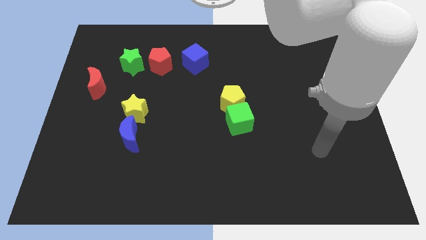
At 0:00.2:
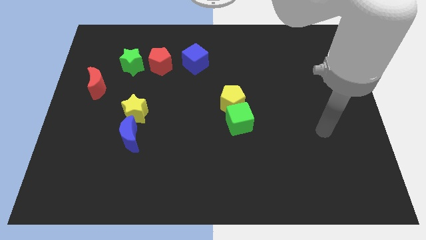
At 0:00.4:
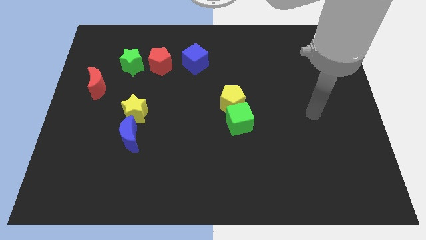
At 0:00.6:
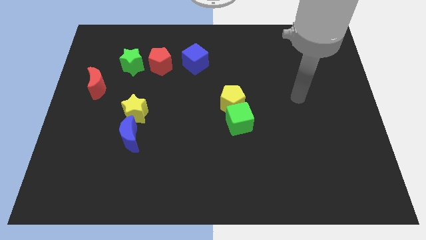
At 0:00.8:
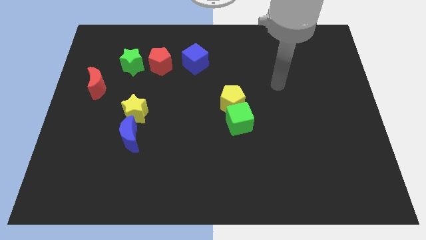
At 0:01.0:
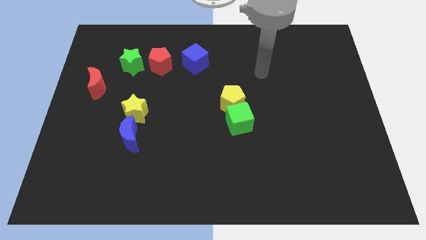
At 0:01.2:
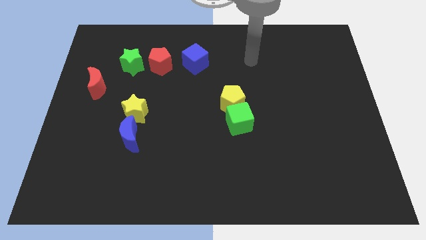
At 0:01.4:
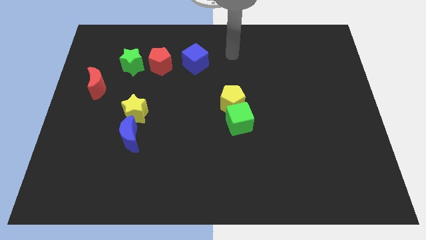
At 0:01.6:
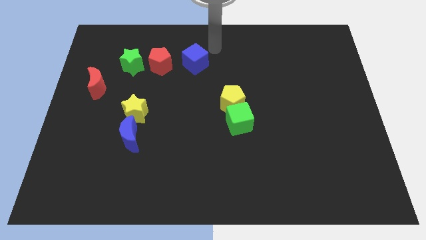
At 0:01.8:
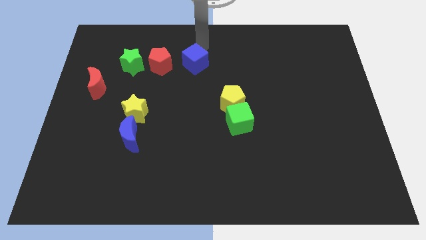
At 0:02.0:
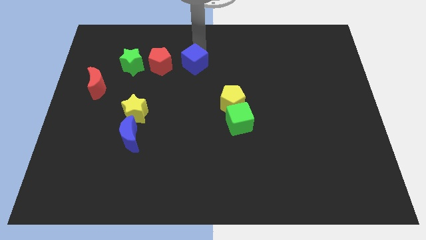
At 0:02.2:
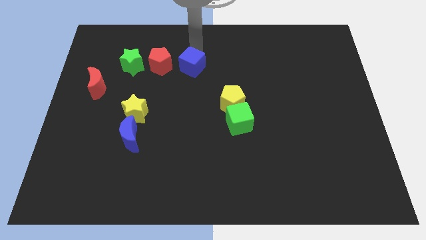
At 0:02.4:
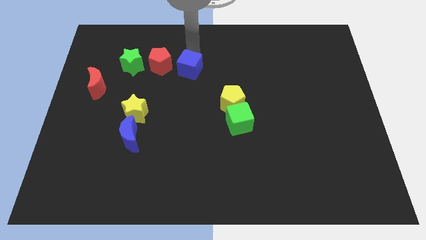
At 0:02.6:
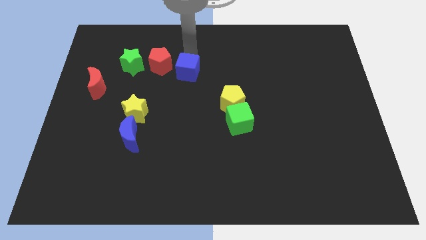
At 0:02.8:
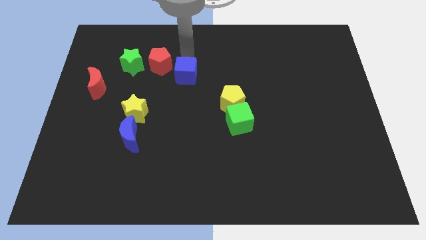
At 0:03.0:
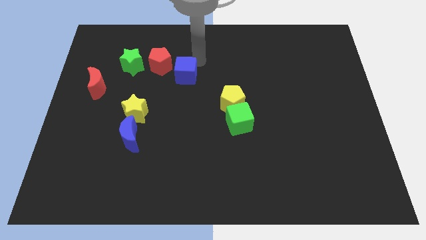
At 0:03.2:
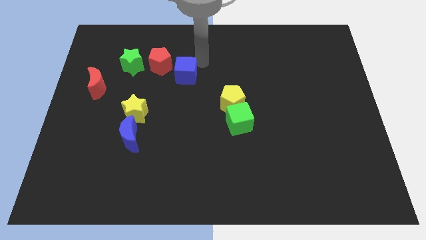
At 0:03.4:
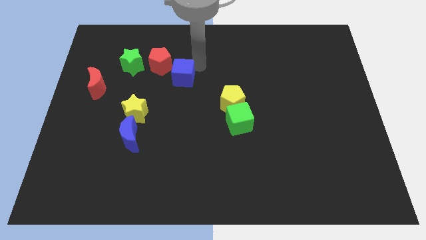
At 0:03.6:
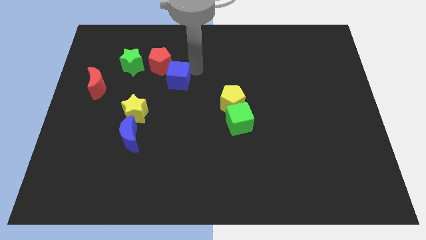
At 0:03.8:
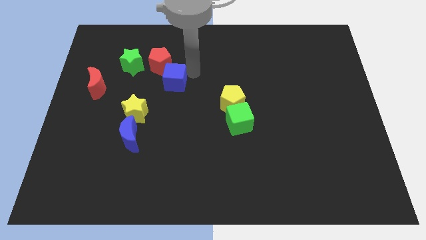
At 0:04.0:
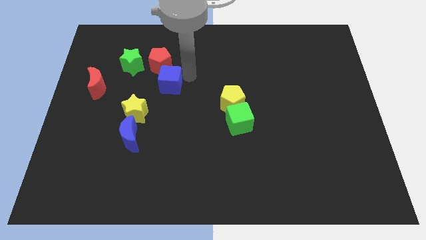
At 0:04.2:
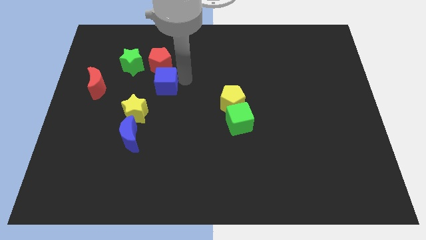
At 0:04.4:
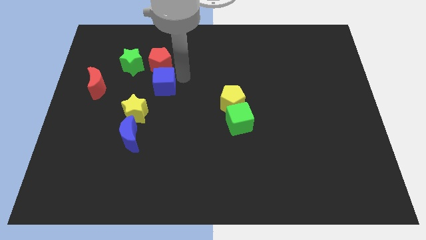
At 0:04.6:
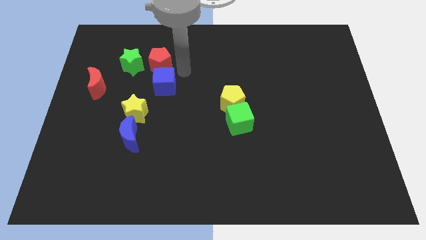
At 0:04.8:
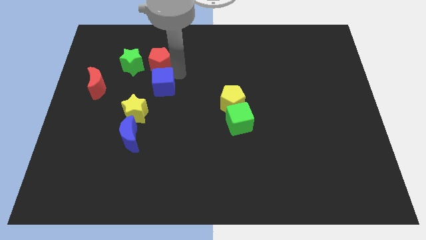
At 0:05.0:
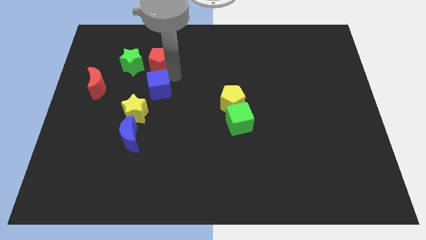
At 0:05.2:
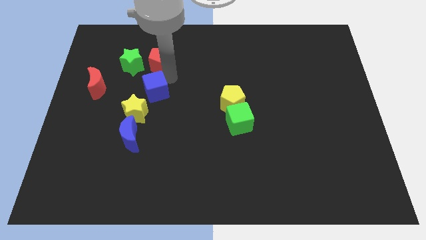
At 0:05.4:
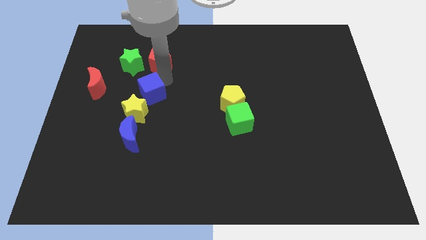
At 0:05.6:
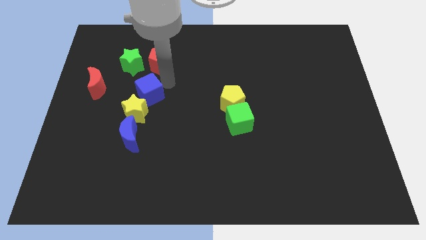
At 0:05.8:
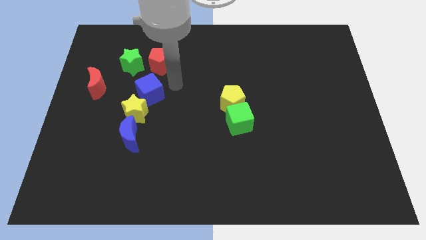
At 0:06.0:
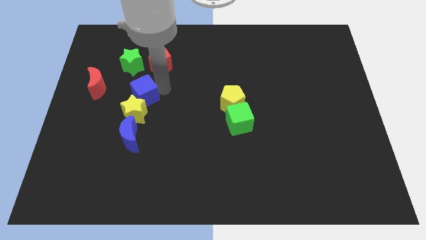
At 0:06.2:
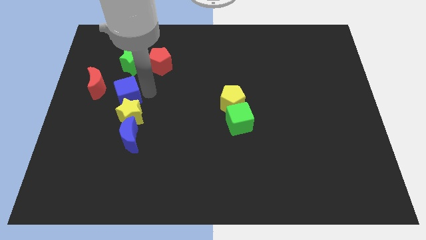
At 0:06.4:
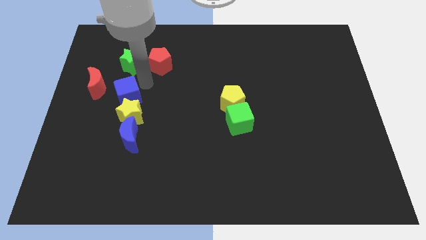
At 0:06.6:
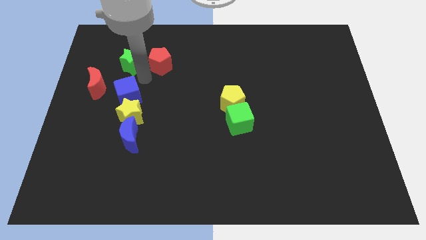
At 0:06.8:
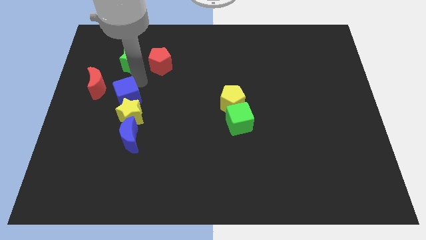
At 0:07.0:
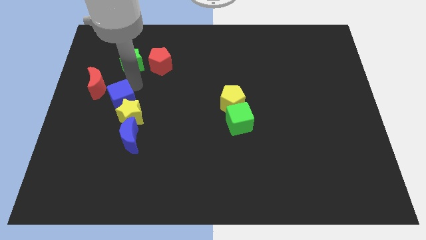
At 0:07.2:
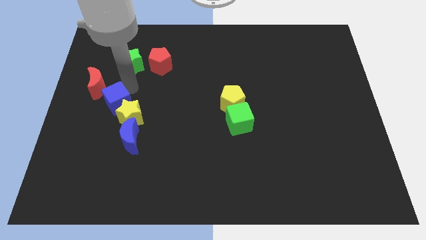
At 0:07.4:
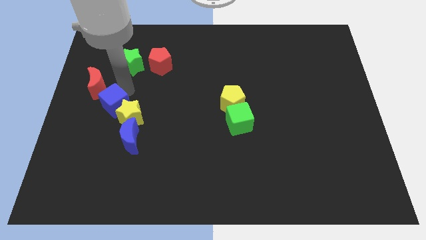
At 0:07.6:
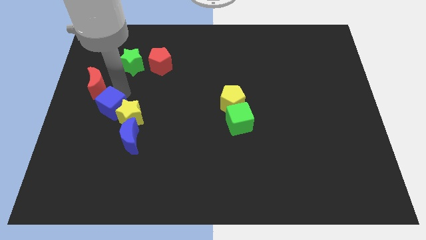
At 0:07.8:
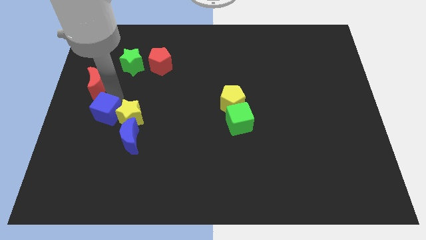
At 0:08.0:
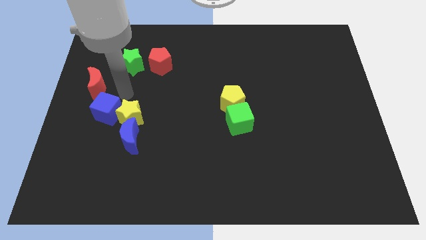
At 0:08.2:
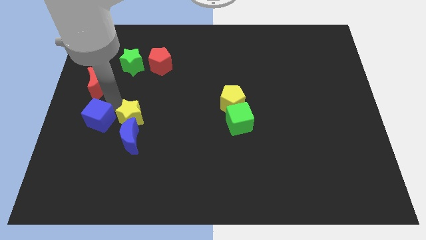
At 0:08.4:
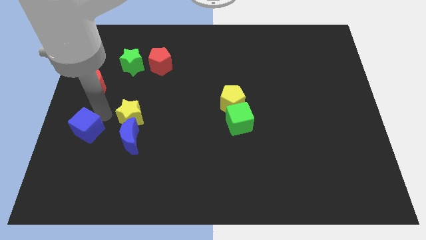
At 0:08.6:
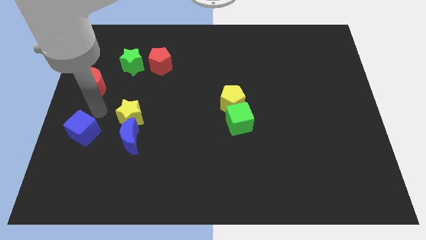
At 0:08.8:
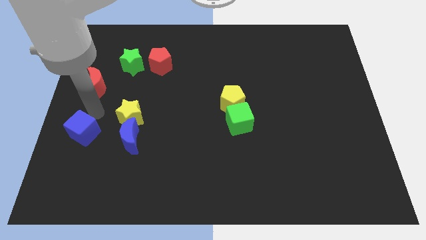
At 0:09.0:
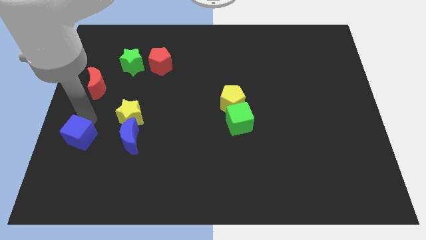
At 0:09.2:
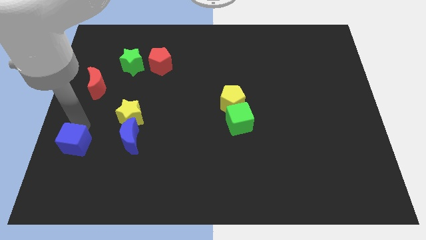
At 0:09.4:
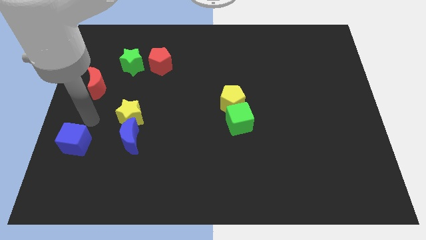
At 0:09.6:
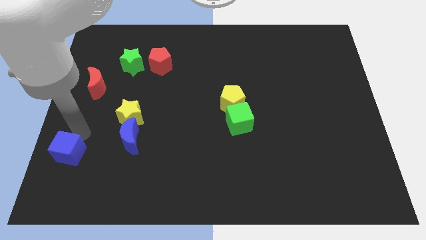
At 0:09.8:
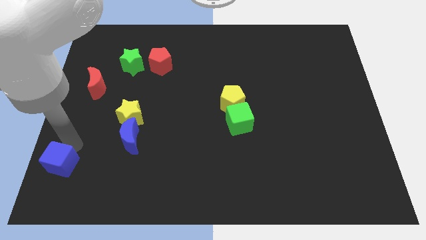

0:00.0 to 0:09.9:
push the blue cube to the bottom left corner

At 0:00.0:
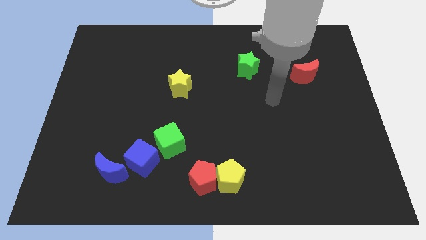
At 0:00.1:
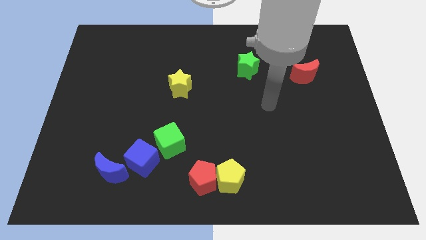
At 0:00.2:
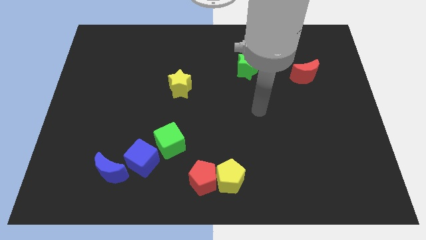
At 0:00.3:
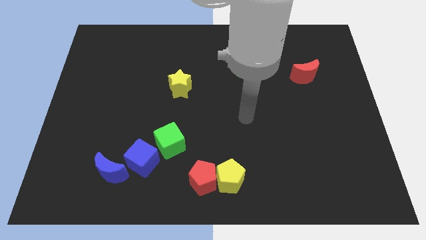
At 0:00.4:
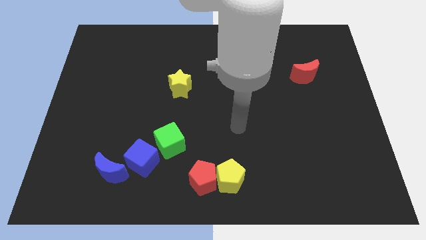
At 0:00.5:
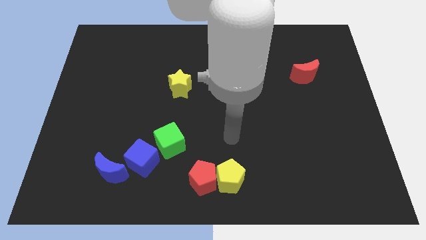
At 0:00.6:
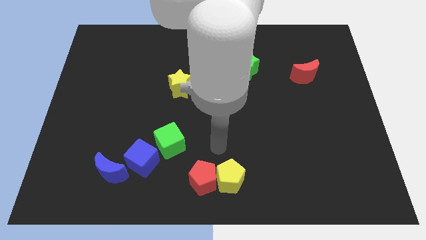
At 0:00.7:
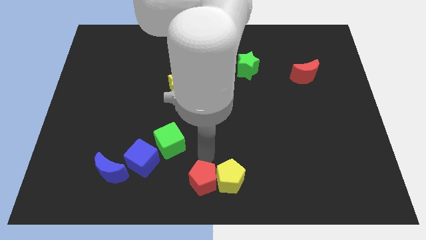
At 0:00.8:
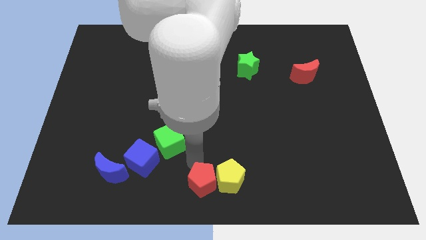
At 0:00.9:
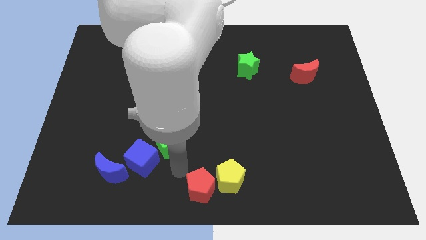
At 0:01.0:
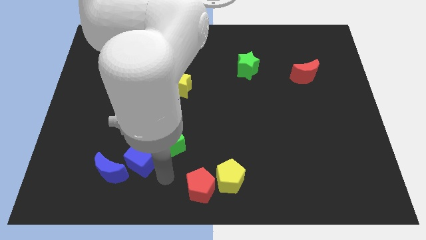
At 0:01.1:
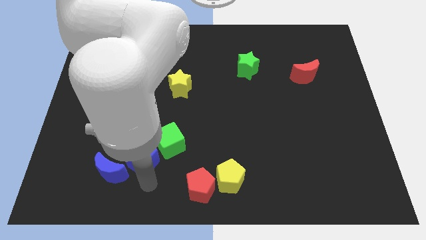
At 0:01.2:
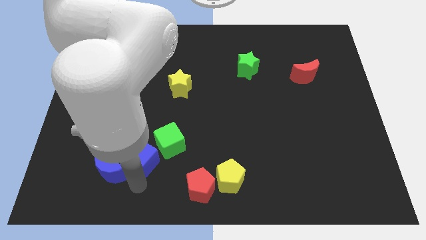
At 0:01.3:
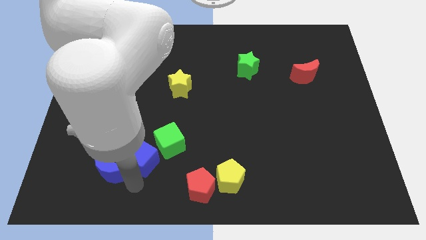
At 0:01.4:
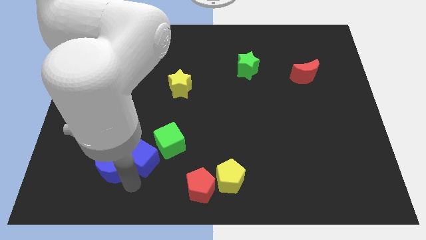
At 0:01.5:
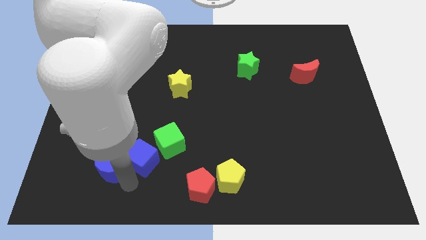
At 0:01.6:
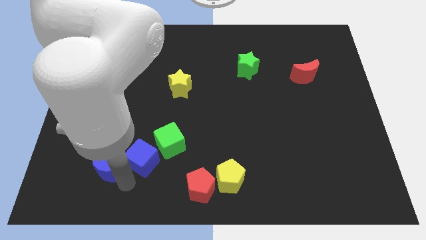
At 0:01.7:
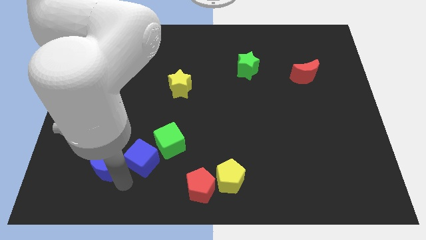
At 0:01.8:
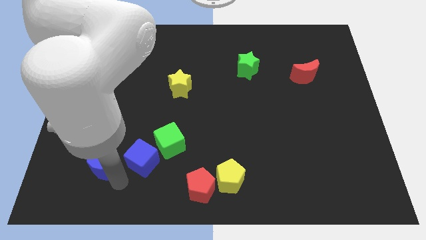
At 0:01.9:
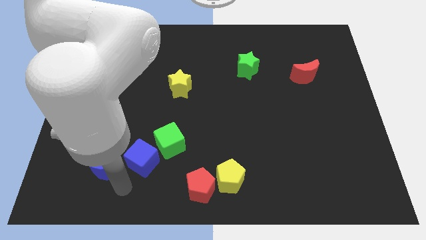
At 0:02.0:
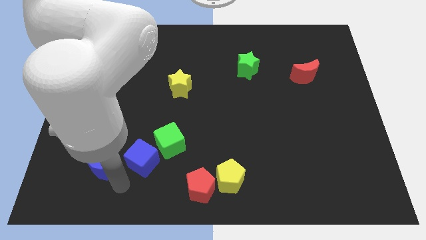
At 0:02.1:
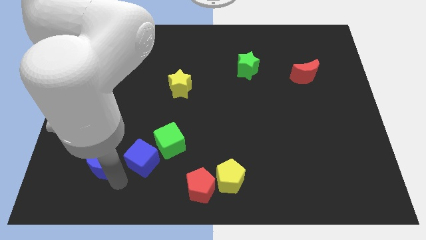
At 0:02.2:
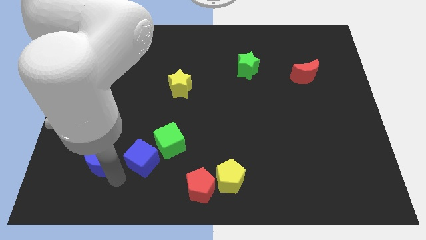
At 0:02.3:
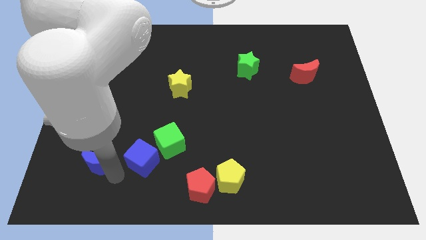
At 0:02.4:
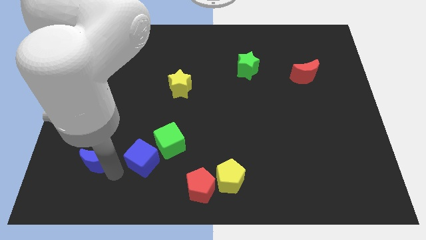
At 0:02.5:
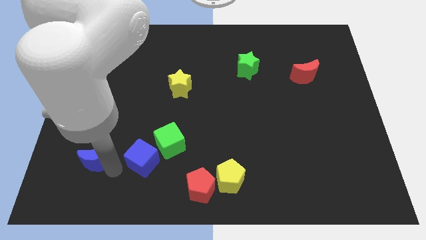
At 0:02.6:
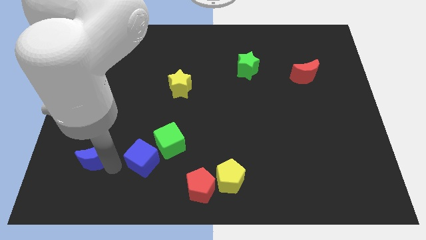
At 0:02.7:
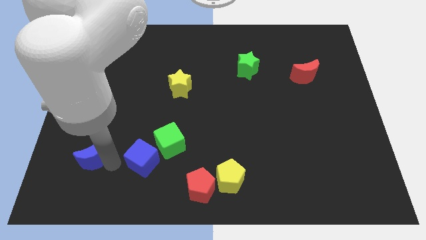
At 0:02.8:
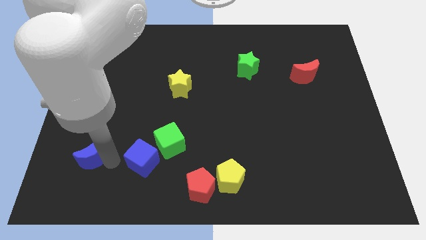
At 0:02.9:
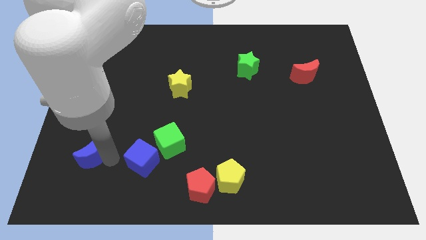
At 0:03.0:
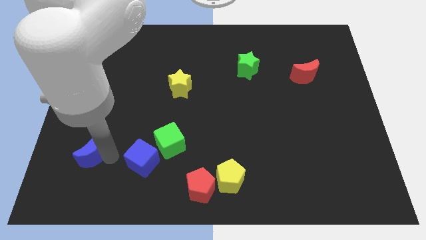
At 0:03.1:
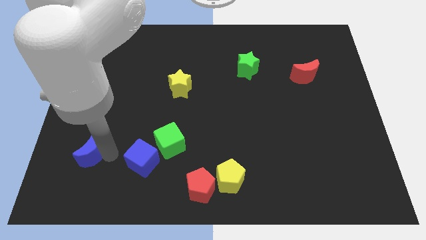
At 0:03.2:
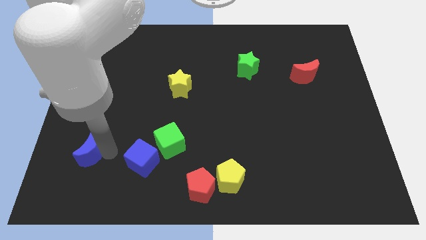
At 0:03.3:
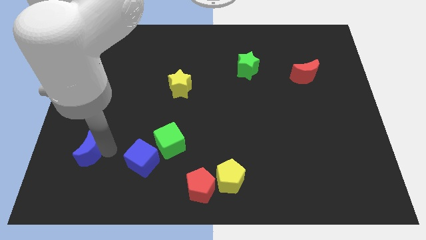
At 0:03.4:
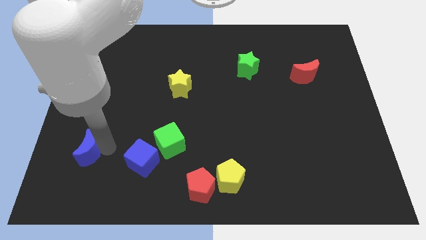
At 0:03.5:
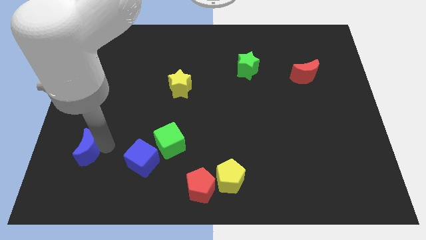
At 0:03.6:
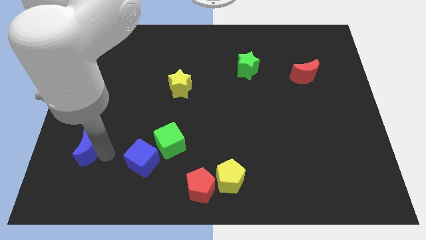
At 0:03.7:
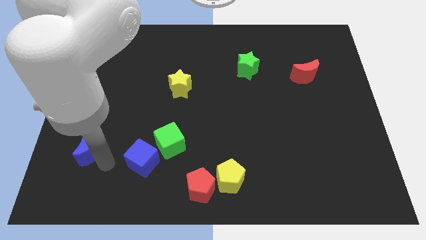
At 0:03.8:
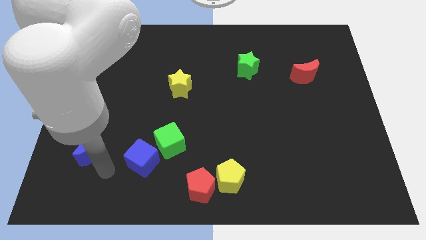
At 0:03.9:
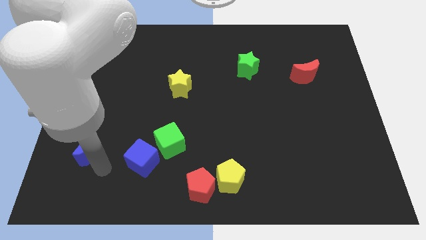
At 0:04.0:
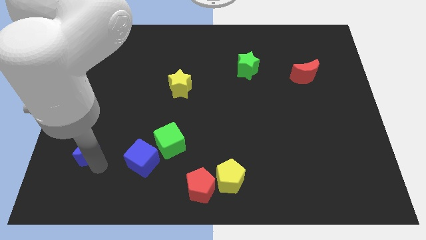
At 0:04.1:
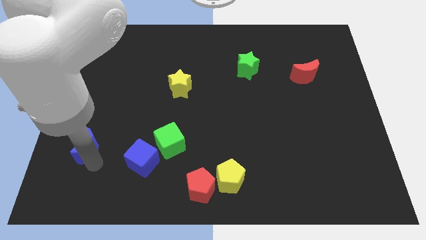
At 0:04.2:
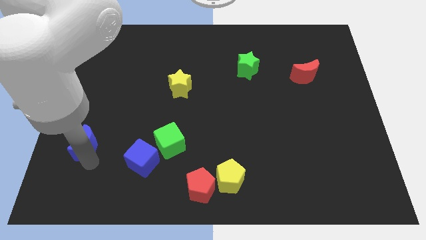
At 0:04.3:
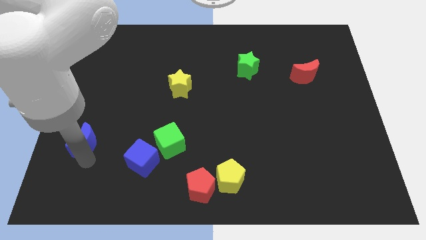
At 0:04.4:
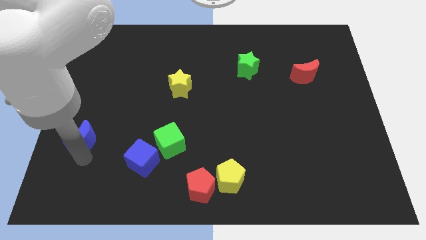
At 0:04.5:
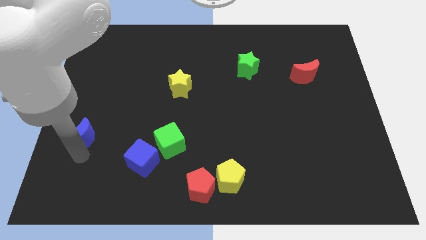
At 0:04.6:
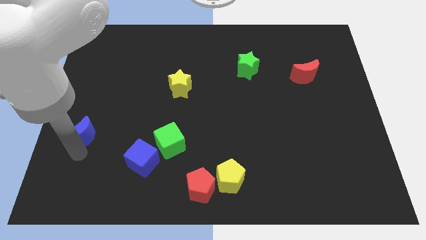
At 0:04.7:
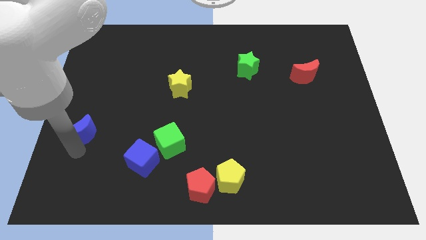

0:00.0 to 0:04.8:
push the blue moon to the center left
